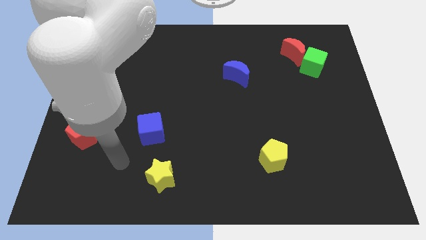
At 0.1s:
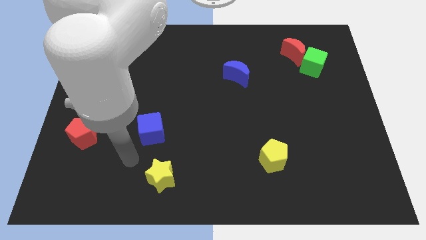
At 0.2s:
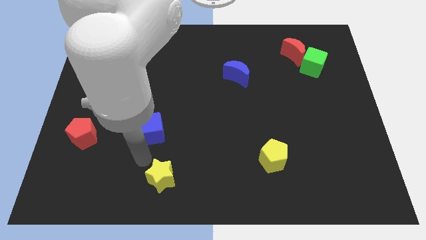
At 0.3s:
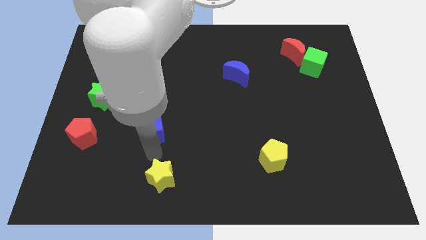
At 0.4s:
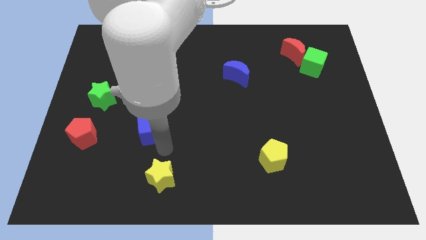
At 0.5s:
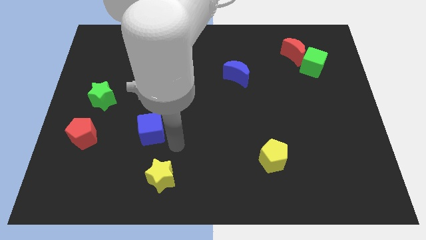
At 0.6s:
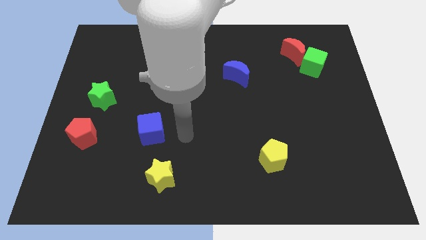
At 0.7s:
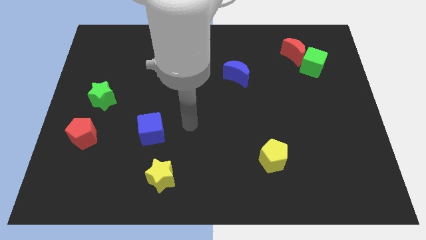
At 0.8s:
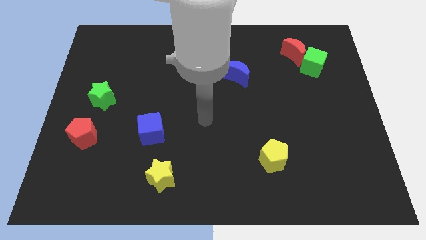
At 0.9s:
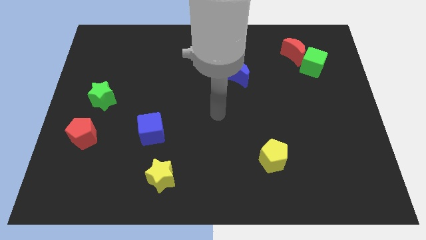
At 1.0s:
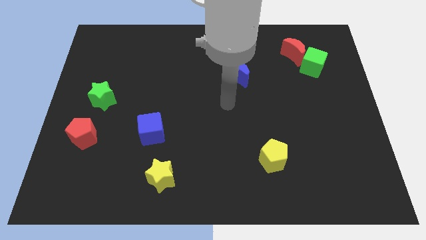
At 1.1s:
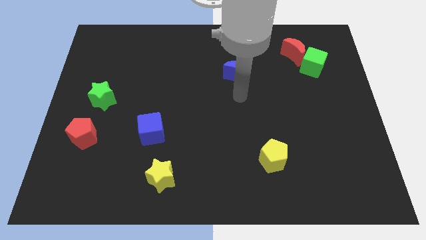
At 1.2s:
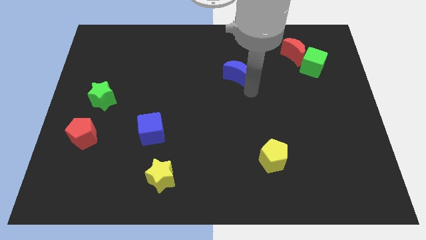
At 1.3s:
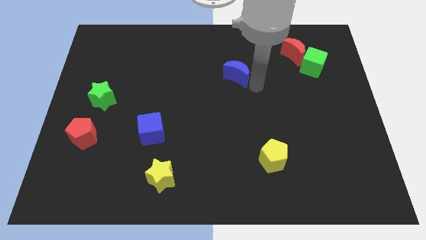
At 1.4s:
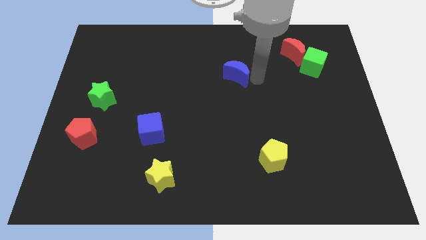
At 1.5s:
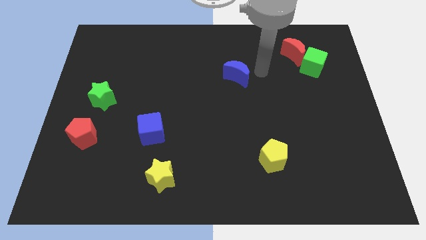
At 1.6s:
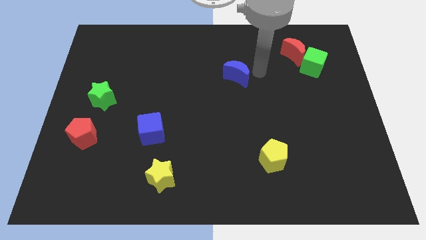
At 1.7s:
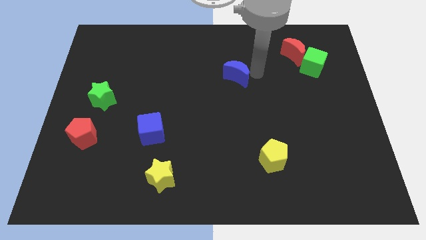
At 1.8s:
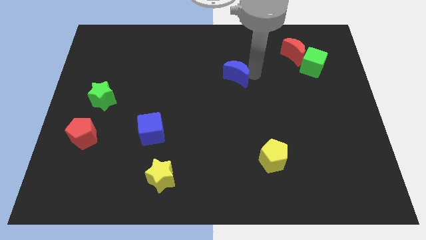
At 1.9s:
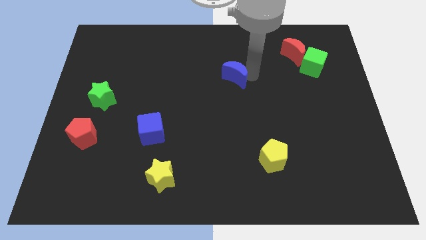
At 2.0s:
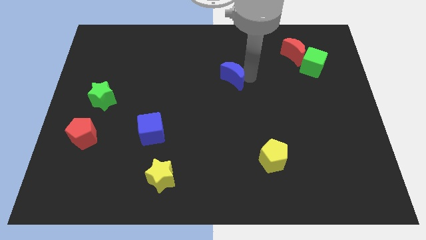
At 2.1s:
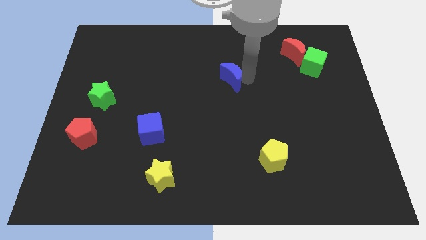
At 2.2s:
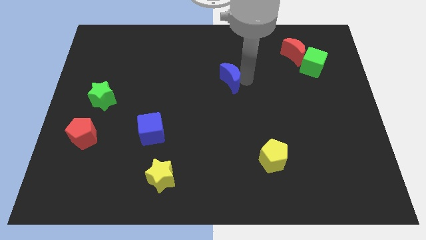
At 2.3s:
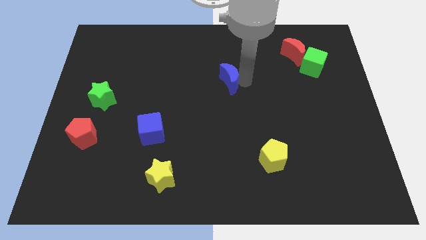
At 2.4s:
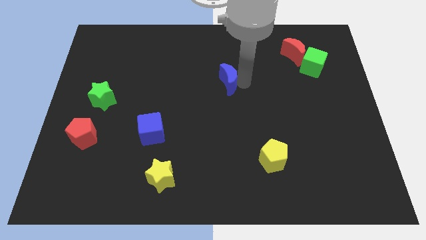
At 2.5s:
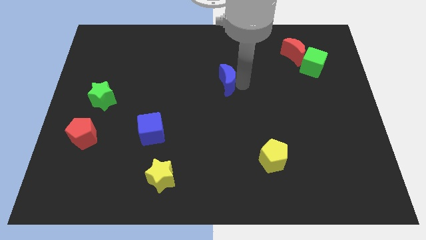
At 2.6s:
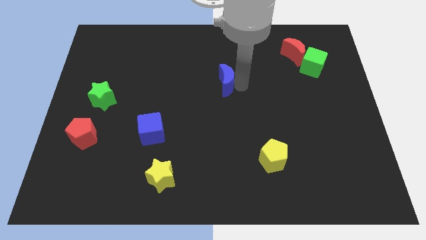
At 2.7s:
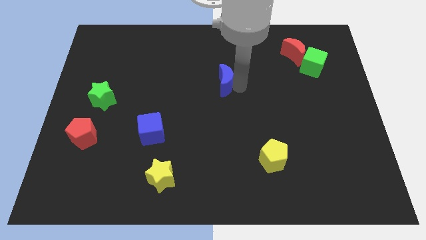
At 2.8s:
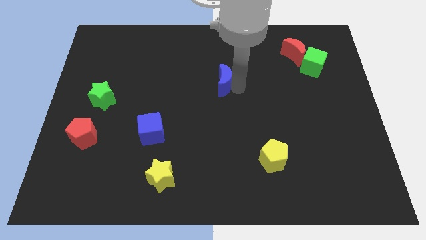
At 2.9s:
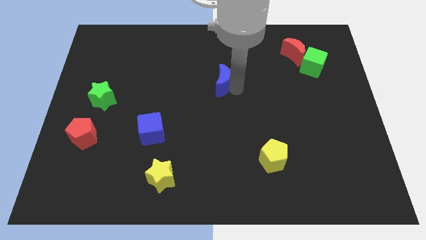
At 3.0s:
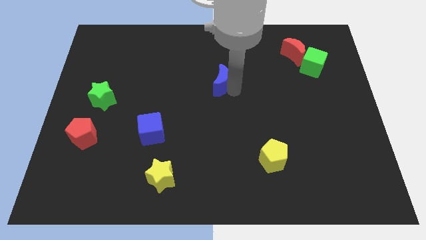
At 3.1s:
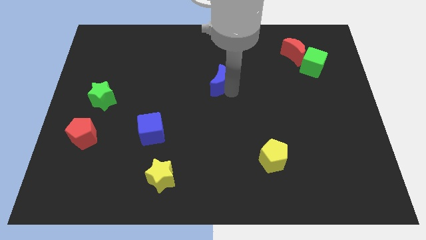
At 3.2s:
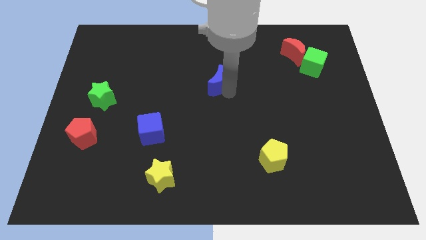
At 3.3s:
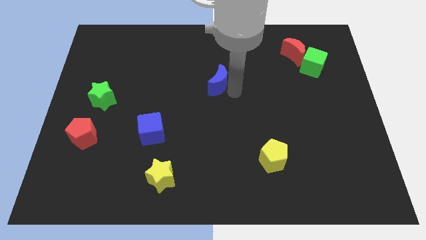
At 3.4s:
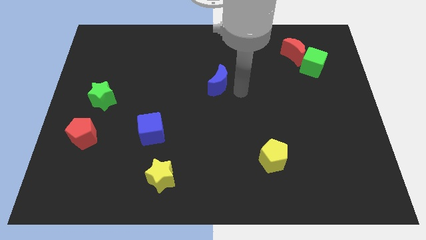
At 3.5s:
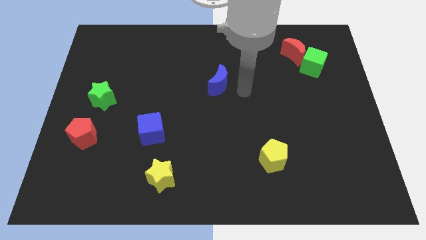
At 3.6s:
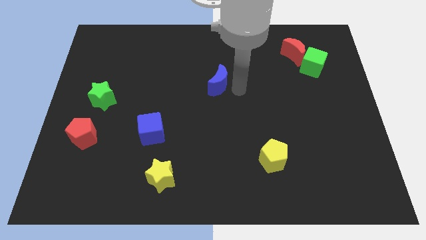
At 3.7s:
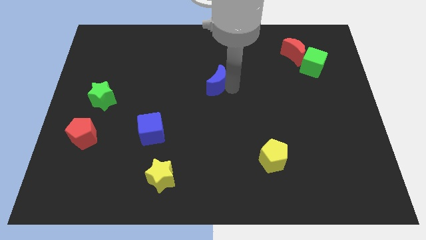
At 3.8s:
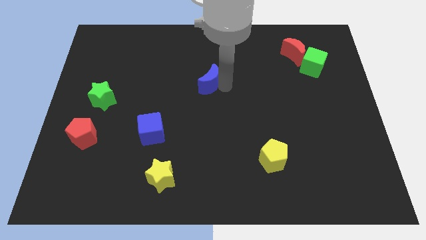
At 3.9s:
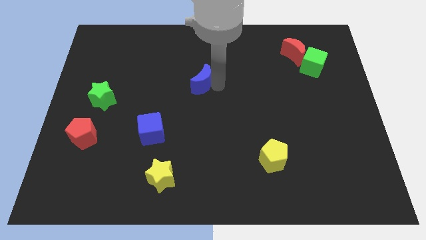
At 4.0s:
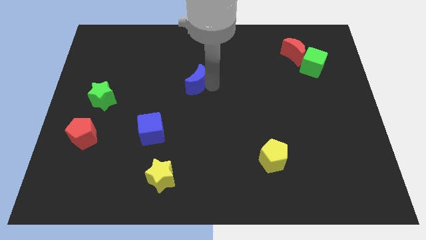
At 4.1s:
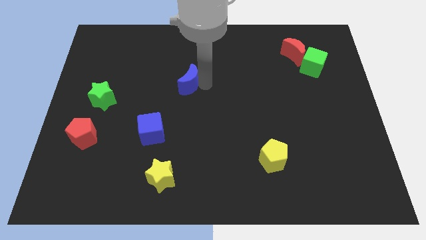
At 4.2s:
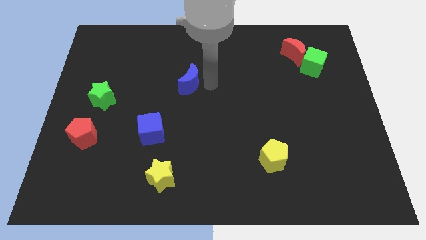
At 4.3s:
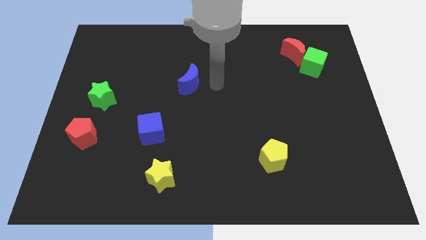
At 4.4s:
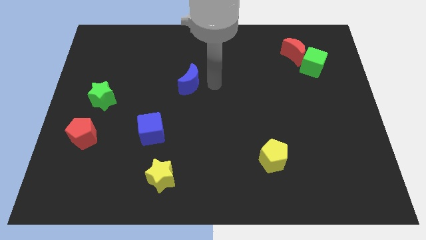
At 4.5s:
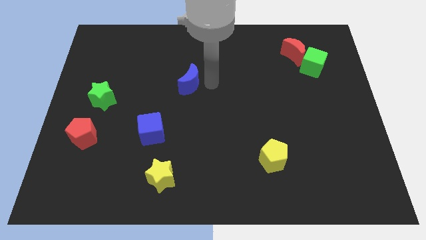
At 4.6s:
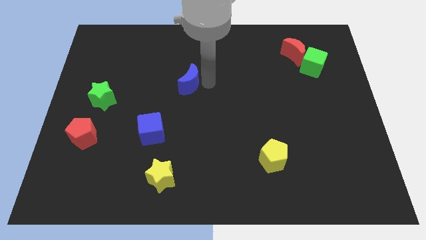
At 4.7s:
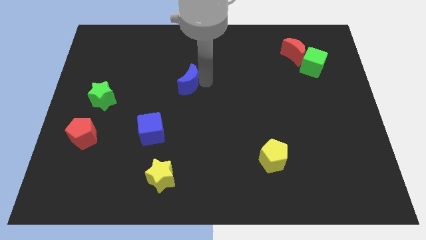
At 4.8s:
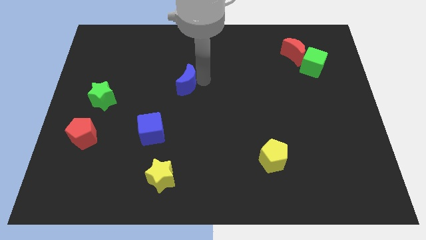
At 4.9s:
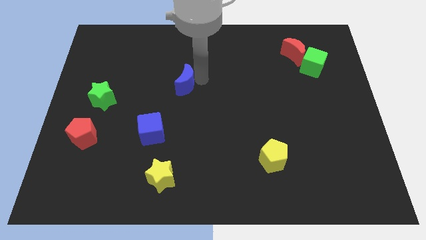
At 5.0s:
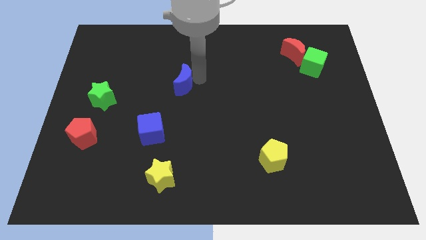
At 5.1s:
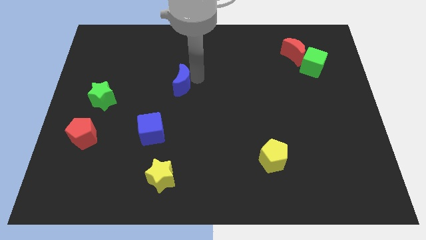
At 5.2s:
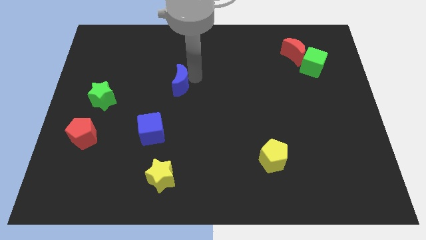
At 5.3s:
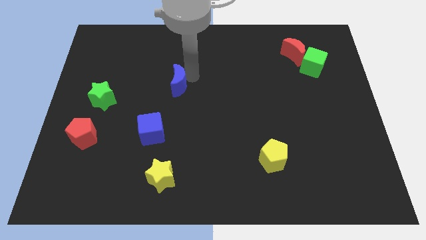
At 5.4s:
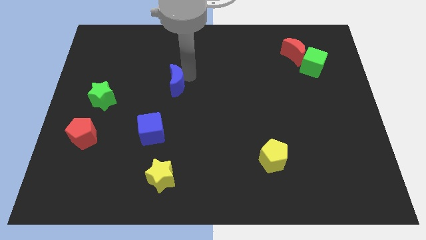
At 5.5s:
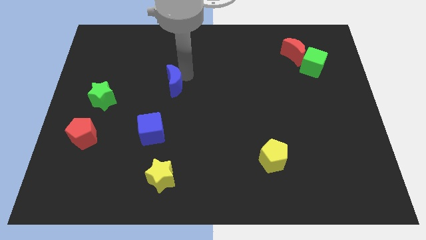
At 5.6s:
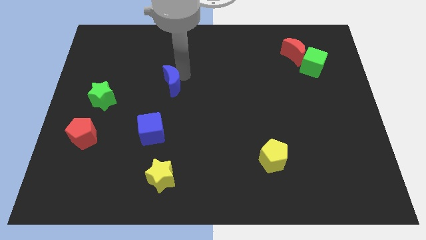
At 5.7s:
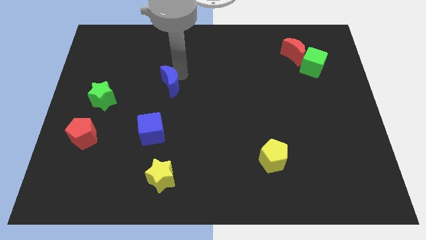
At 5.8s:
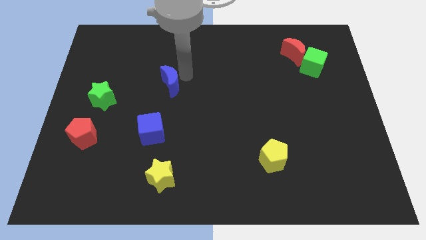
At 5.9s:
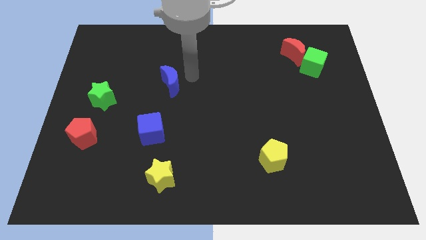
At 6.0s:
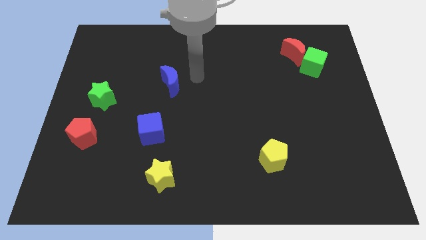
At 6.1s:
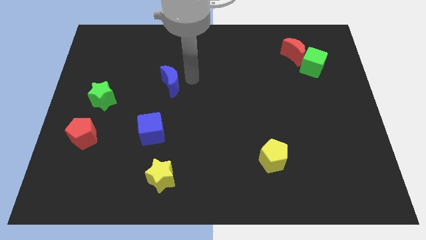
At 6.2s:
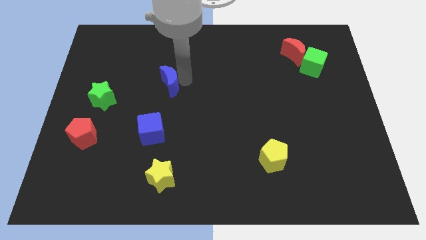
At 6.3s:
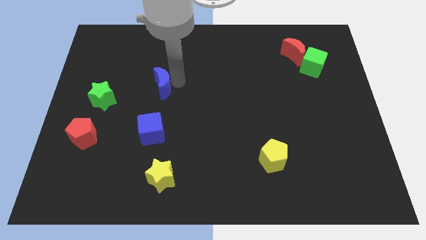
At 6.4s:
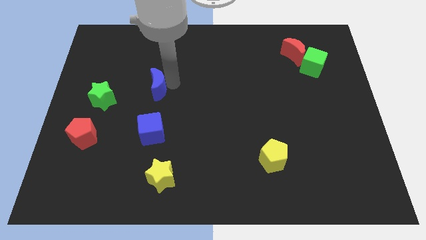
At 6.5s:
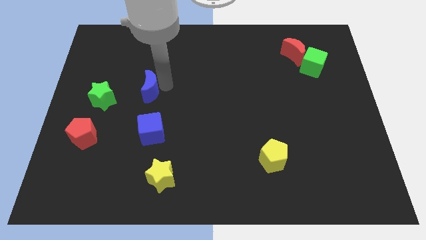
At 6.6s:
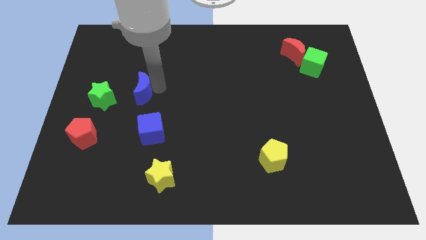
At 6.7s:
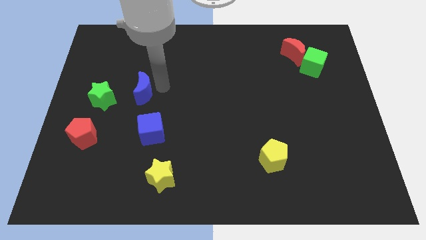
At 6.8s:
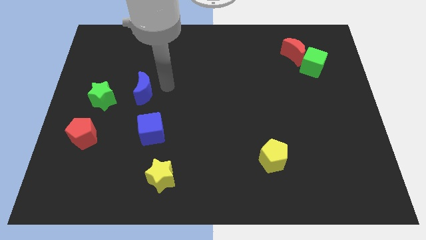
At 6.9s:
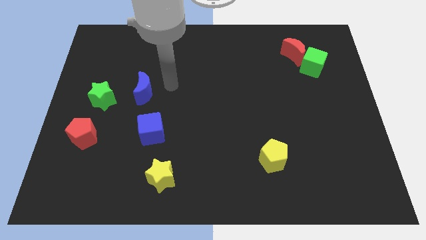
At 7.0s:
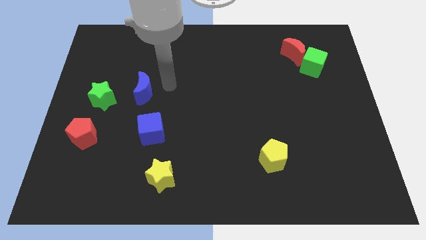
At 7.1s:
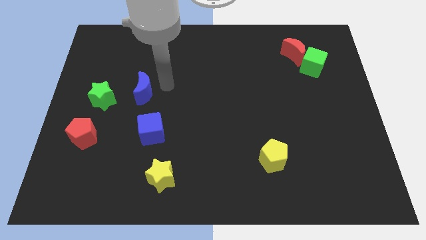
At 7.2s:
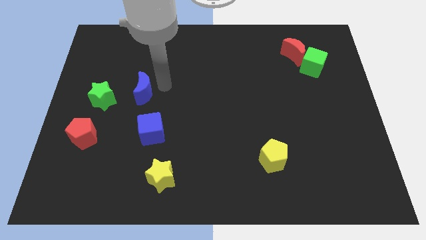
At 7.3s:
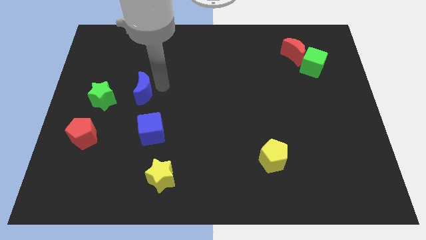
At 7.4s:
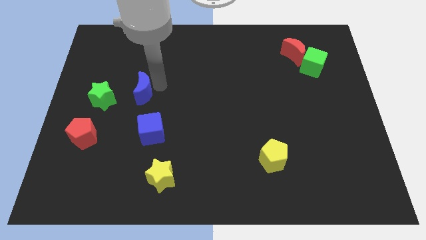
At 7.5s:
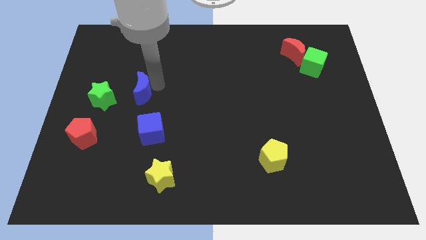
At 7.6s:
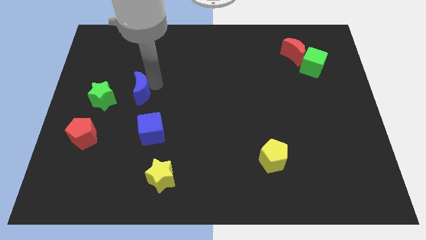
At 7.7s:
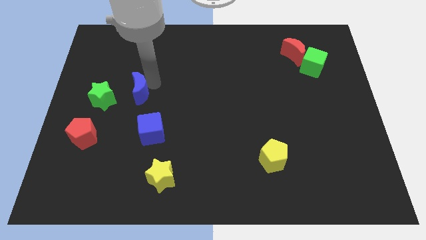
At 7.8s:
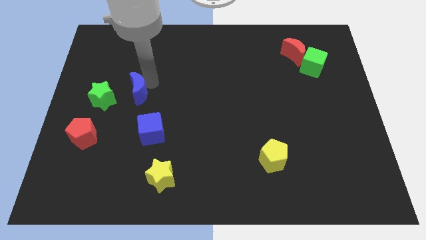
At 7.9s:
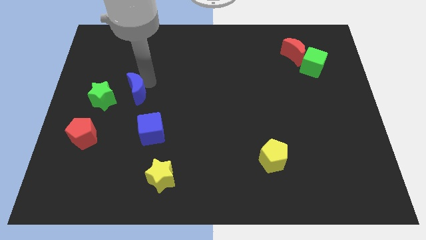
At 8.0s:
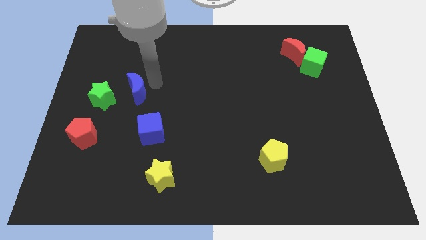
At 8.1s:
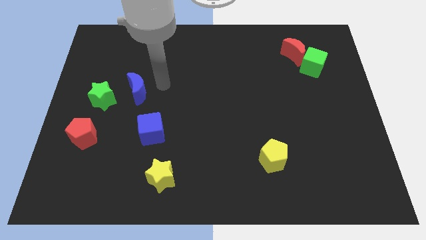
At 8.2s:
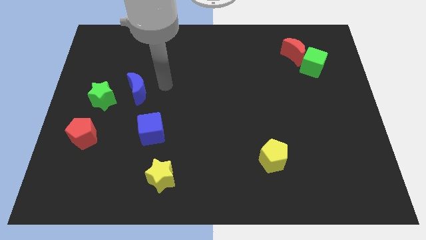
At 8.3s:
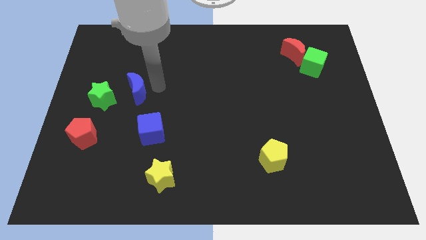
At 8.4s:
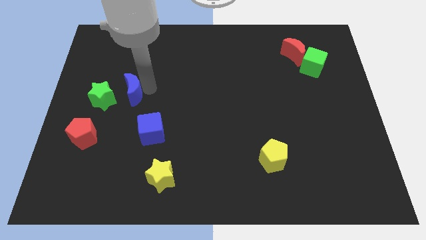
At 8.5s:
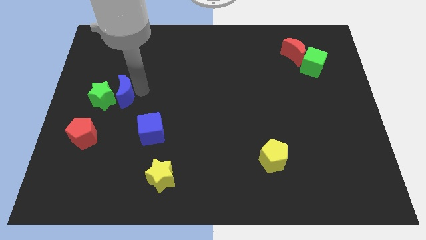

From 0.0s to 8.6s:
push the blue moon towards the green star
